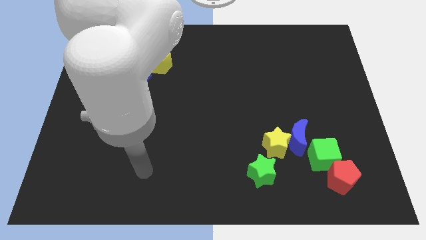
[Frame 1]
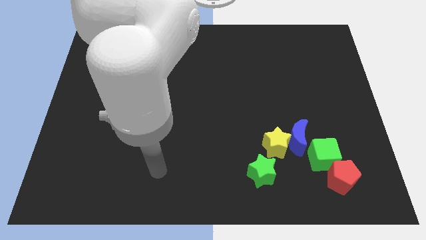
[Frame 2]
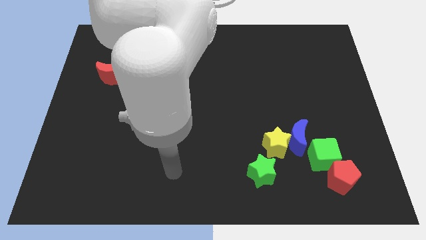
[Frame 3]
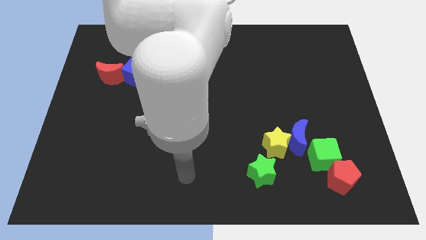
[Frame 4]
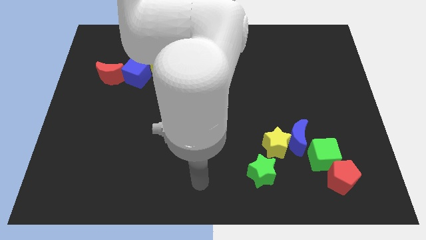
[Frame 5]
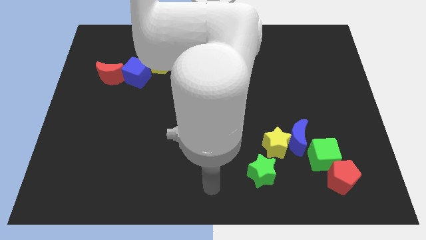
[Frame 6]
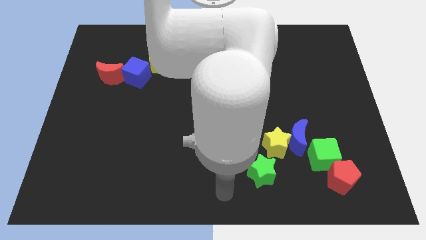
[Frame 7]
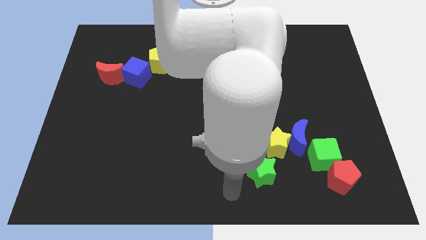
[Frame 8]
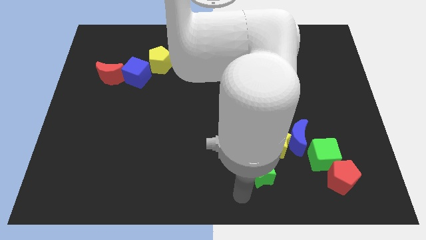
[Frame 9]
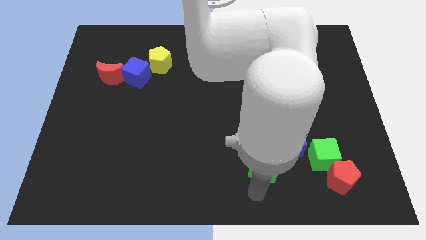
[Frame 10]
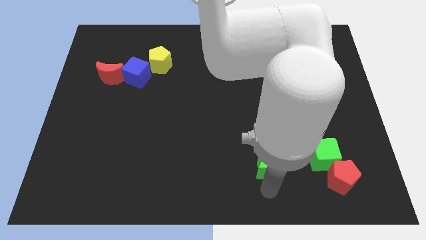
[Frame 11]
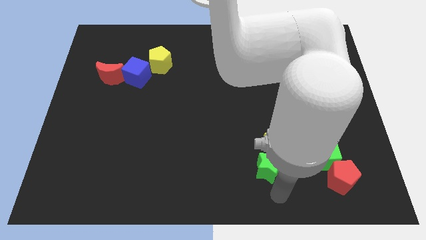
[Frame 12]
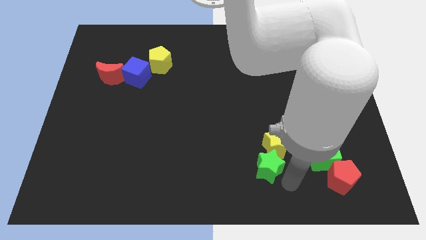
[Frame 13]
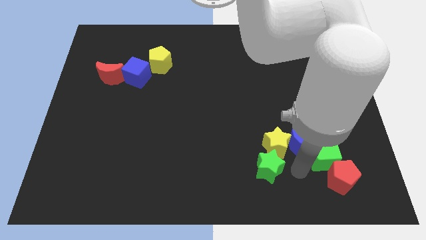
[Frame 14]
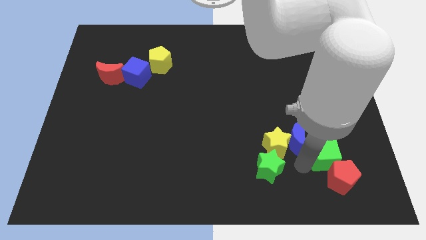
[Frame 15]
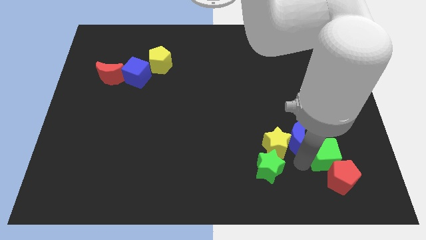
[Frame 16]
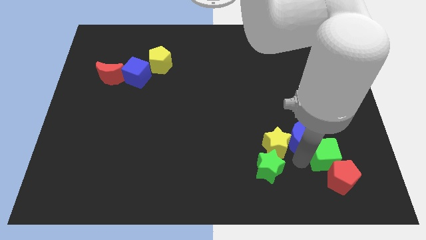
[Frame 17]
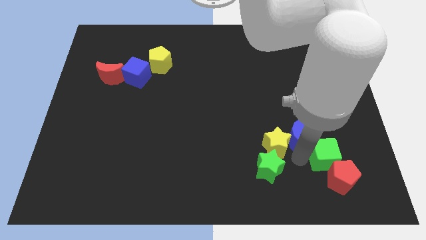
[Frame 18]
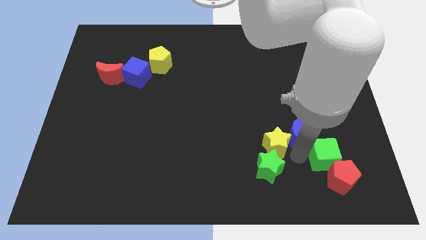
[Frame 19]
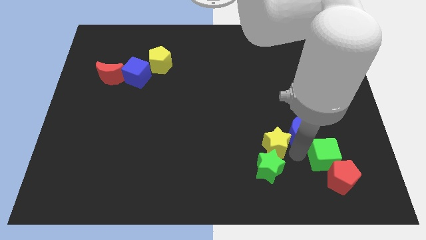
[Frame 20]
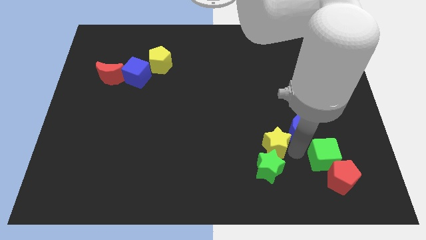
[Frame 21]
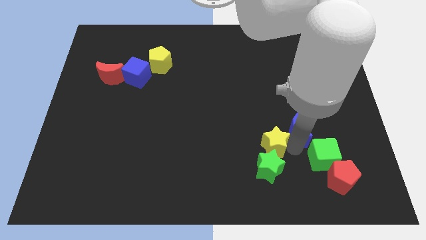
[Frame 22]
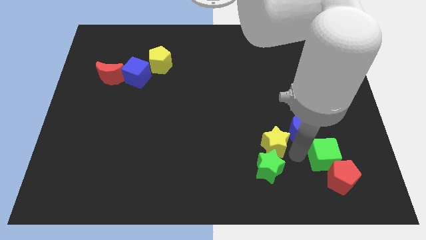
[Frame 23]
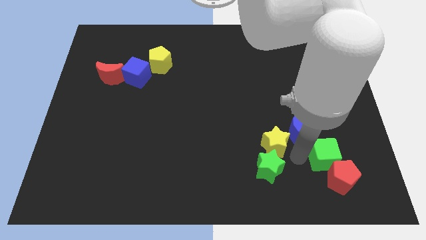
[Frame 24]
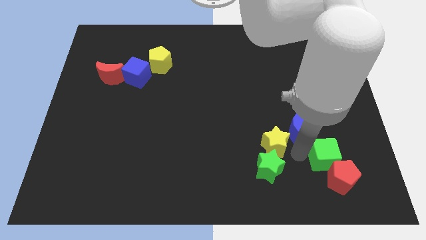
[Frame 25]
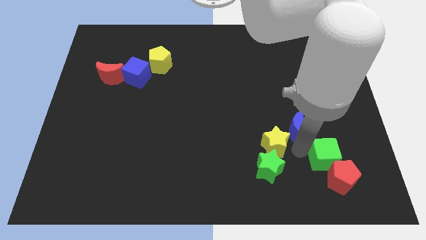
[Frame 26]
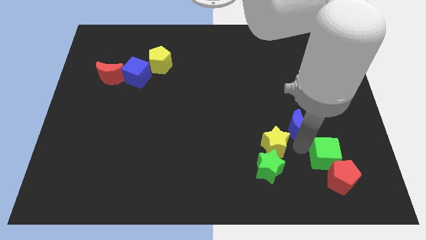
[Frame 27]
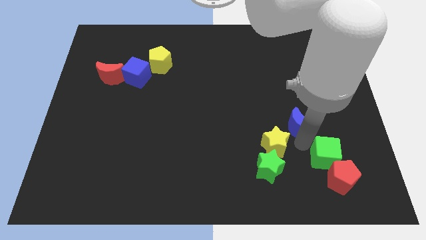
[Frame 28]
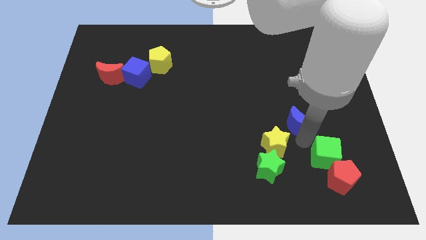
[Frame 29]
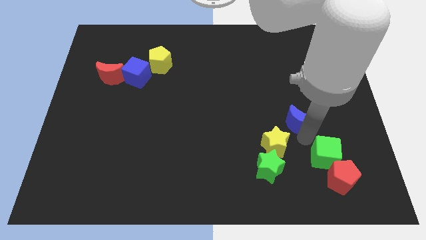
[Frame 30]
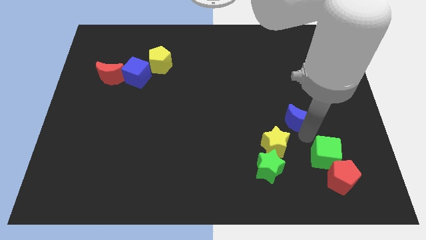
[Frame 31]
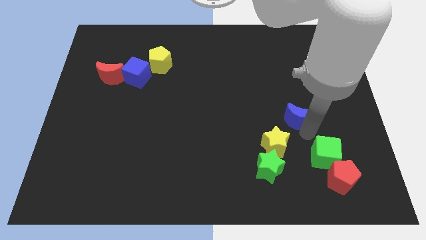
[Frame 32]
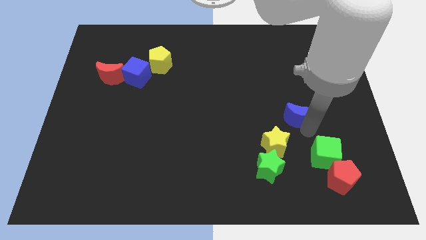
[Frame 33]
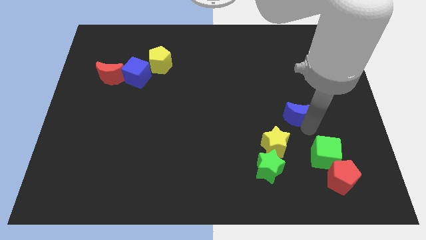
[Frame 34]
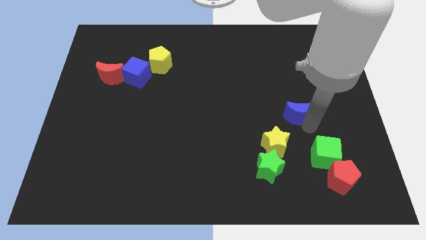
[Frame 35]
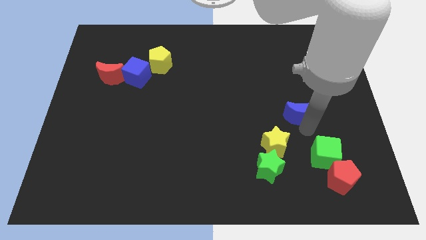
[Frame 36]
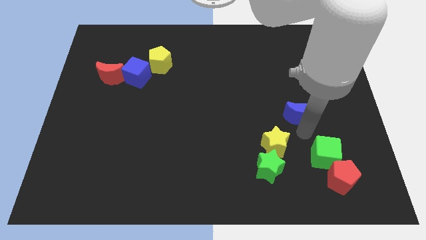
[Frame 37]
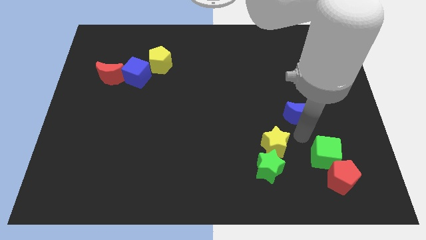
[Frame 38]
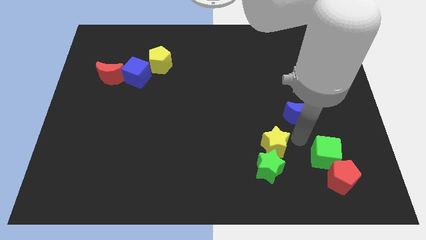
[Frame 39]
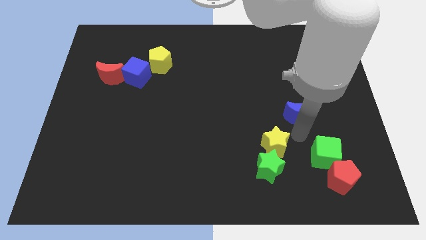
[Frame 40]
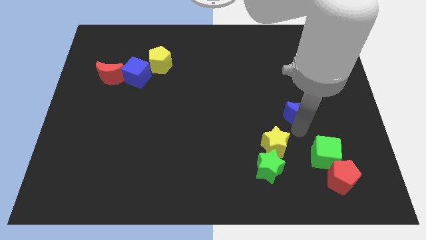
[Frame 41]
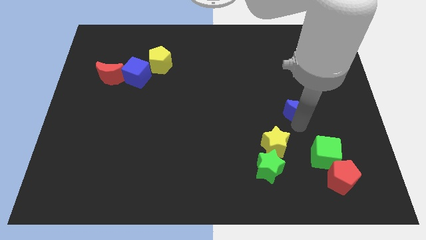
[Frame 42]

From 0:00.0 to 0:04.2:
move the blue moon away from the yellow star and green cube

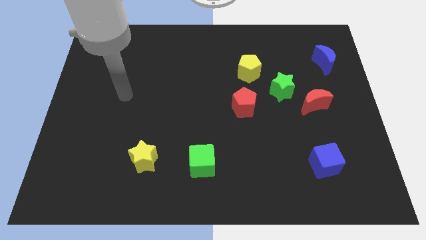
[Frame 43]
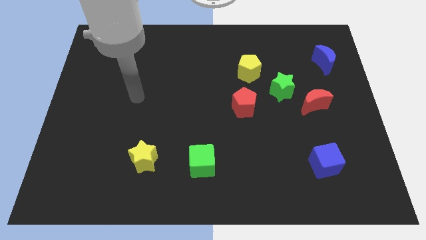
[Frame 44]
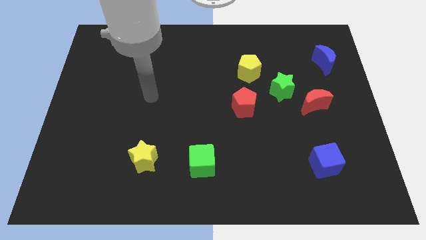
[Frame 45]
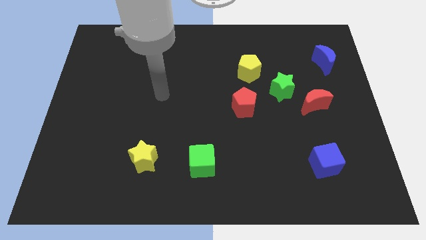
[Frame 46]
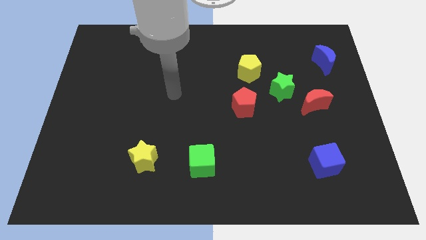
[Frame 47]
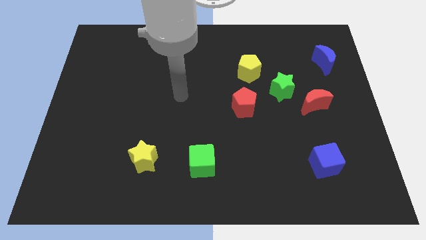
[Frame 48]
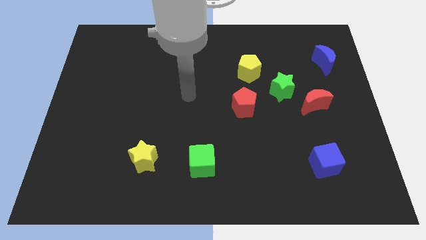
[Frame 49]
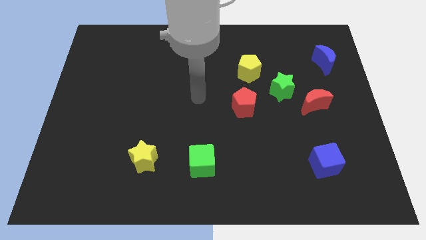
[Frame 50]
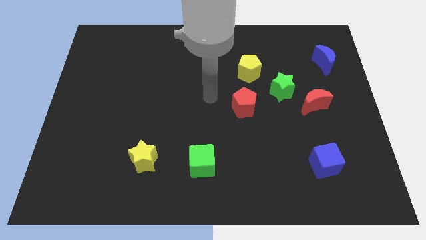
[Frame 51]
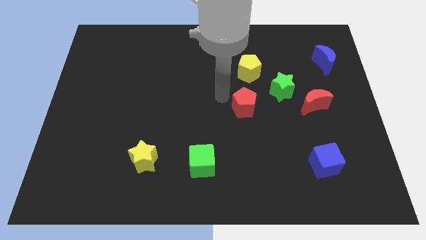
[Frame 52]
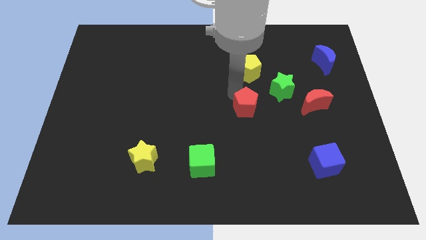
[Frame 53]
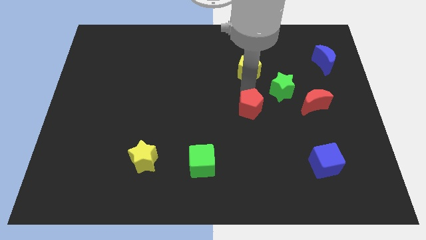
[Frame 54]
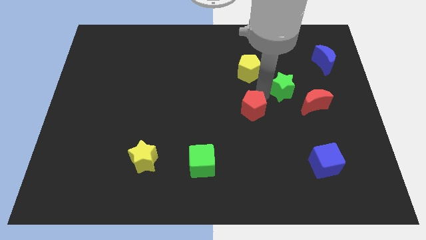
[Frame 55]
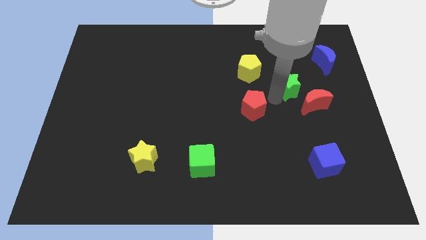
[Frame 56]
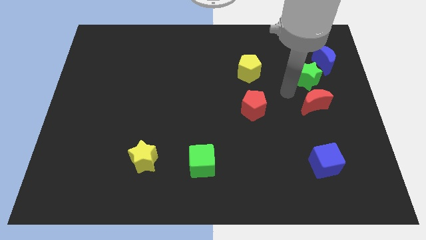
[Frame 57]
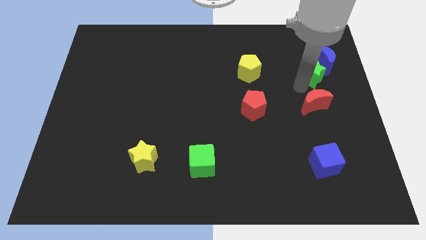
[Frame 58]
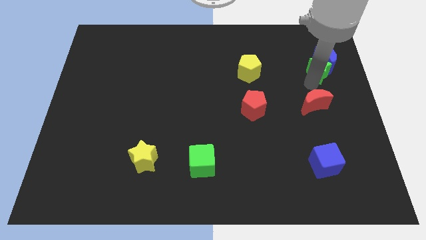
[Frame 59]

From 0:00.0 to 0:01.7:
move the red moon away from the green star

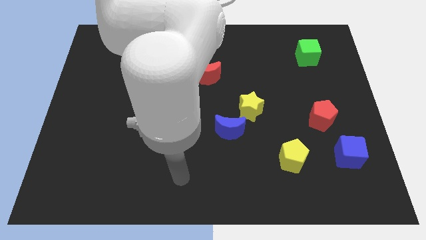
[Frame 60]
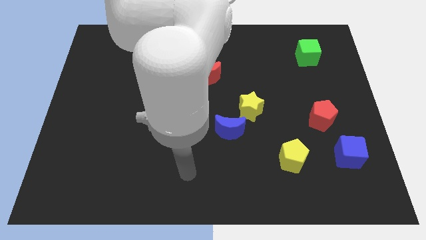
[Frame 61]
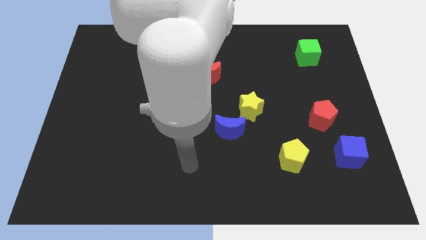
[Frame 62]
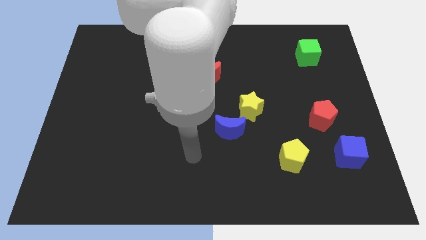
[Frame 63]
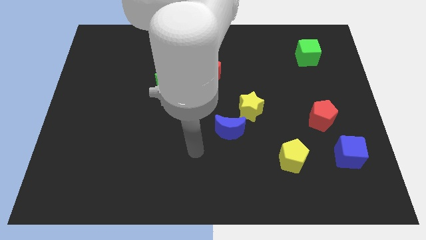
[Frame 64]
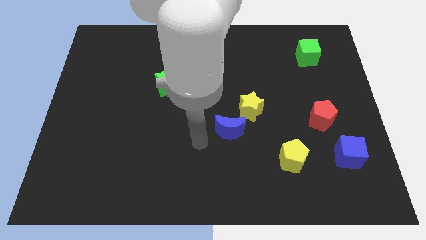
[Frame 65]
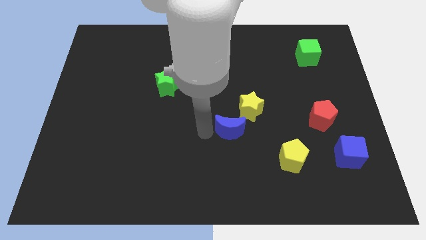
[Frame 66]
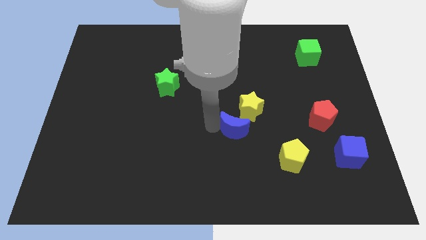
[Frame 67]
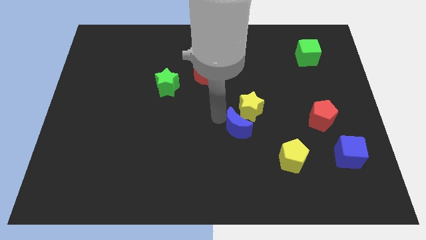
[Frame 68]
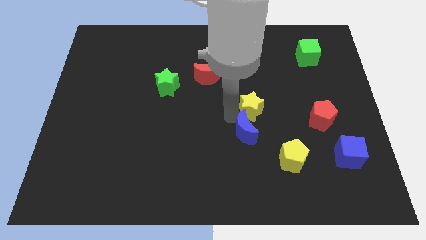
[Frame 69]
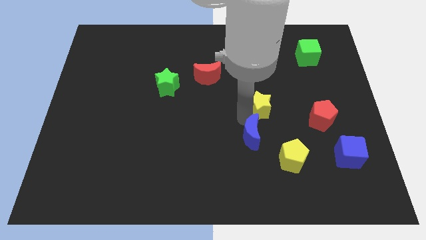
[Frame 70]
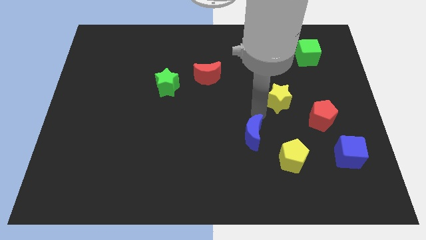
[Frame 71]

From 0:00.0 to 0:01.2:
separate the blue moon from the yellow star

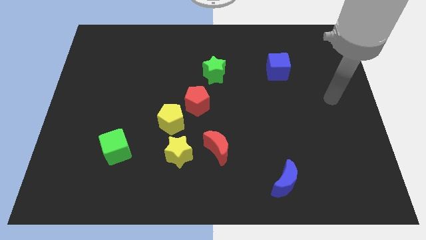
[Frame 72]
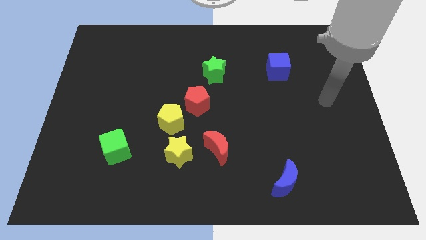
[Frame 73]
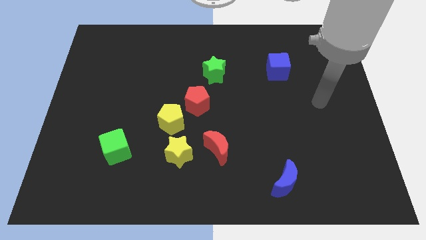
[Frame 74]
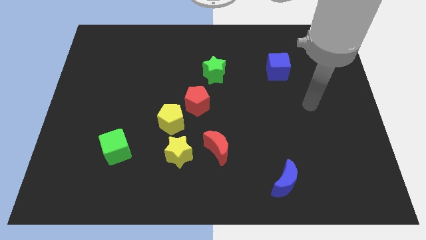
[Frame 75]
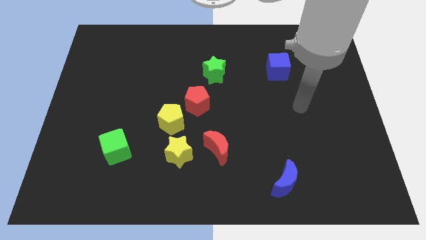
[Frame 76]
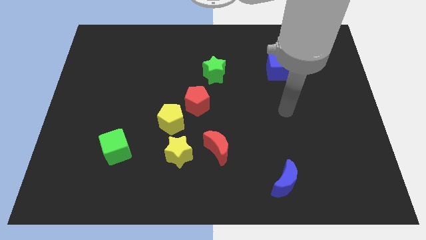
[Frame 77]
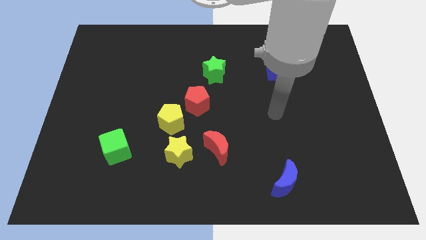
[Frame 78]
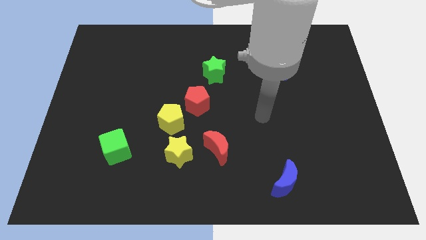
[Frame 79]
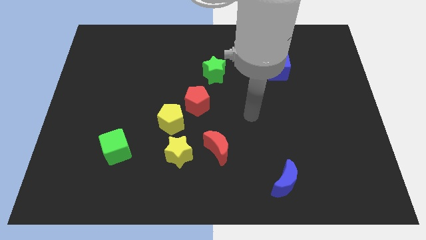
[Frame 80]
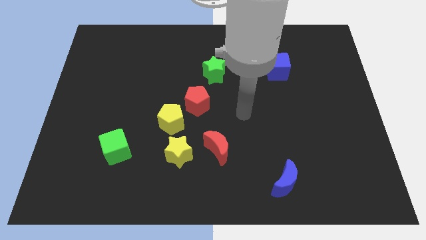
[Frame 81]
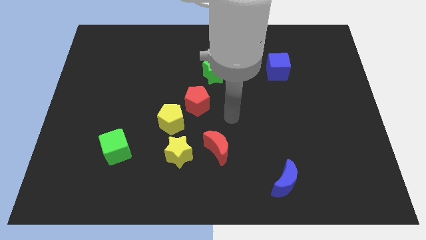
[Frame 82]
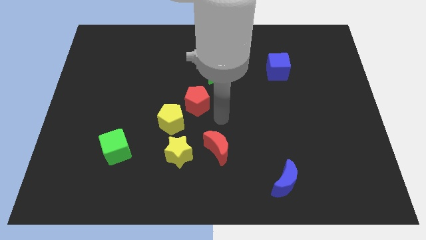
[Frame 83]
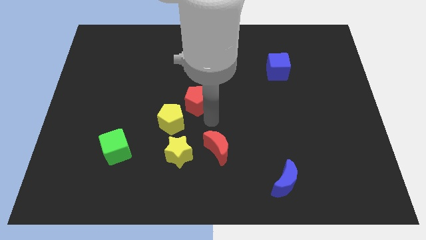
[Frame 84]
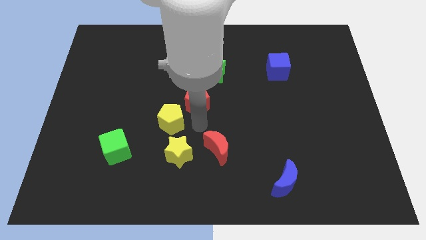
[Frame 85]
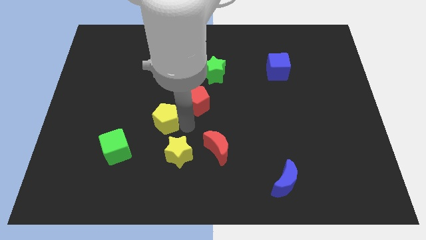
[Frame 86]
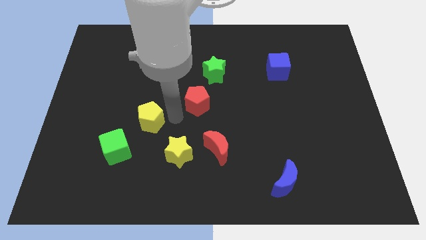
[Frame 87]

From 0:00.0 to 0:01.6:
move the red pentagon away from the yellow pentagon

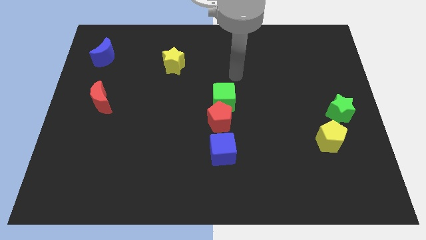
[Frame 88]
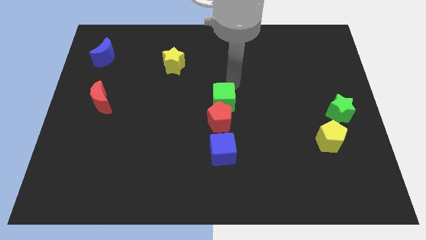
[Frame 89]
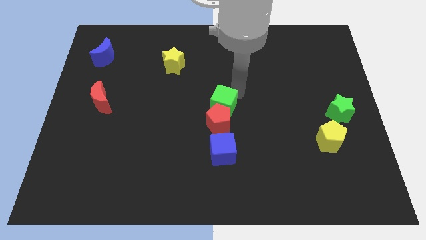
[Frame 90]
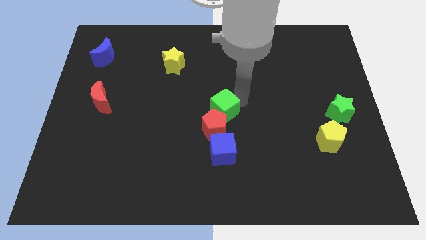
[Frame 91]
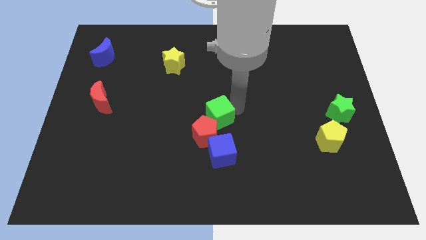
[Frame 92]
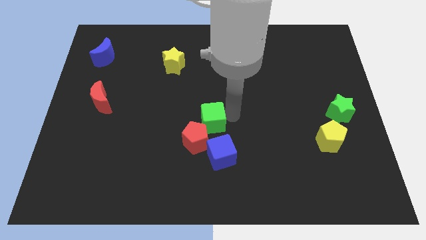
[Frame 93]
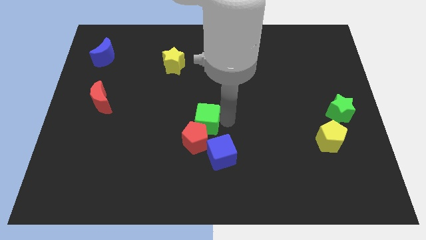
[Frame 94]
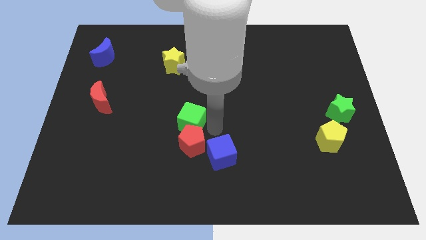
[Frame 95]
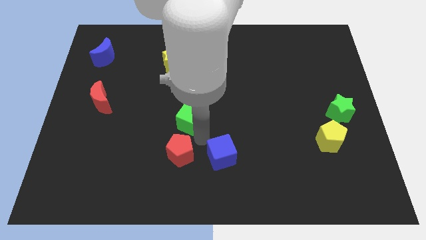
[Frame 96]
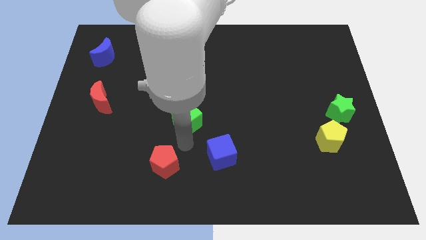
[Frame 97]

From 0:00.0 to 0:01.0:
separate the green cube from the red pentagon
